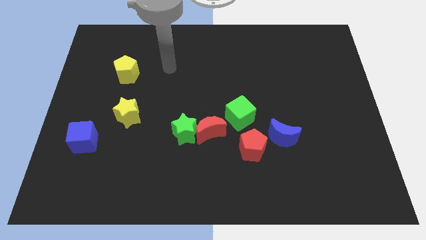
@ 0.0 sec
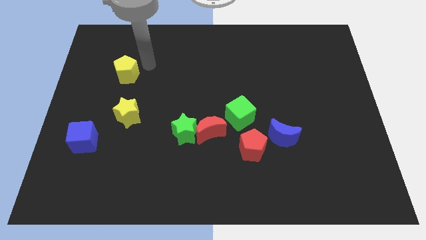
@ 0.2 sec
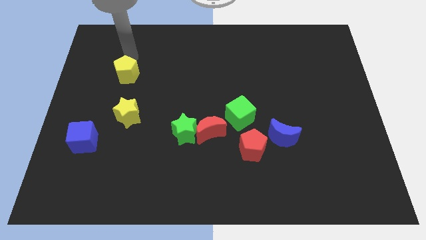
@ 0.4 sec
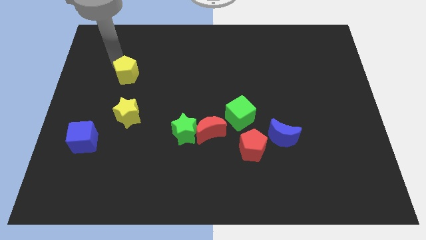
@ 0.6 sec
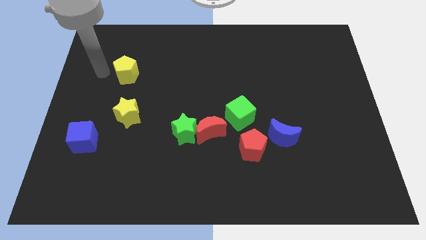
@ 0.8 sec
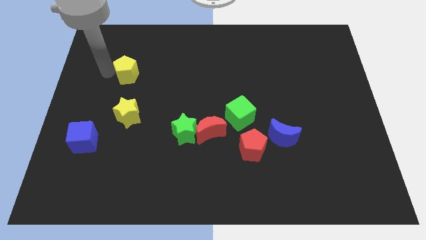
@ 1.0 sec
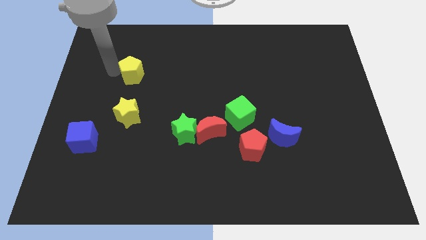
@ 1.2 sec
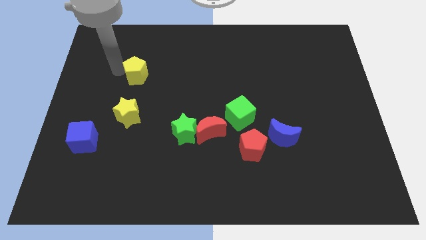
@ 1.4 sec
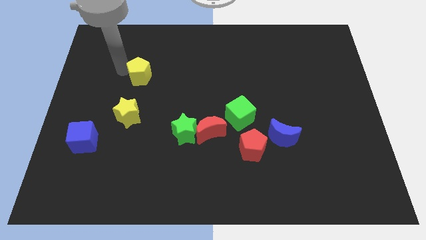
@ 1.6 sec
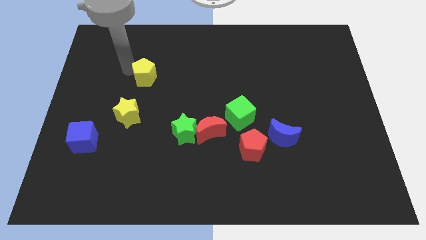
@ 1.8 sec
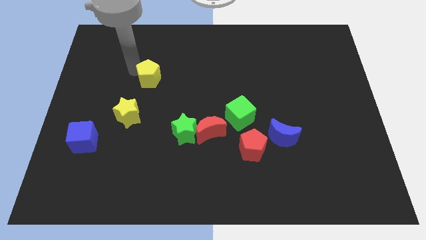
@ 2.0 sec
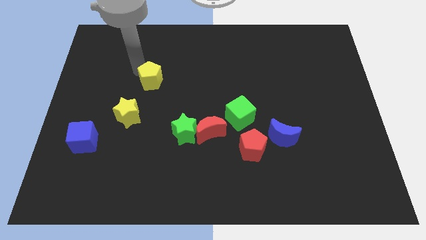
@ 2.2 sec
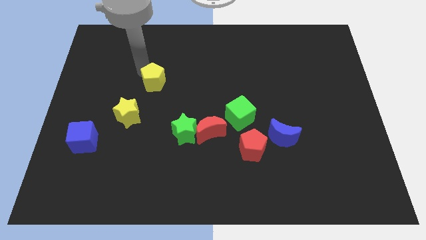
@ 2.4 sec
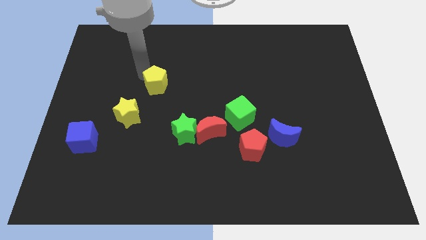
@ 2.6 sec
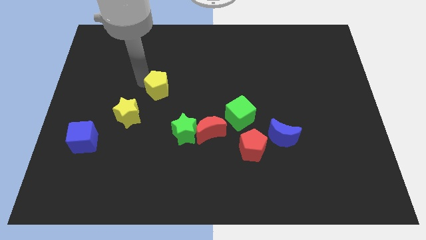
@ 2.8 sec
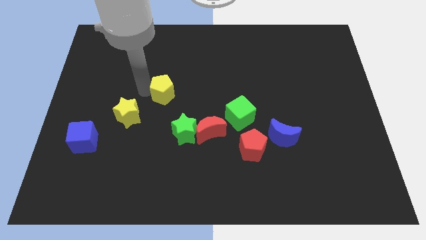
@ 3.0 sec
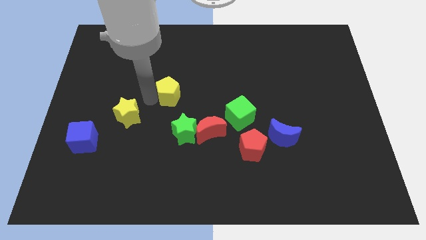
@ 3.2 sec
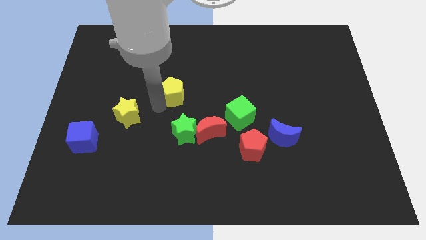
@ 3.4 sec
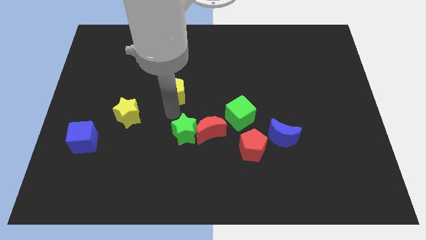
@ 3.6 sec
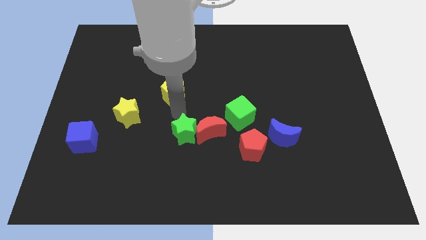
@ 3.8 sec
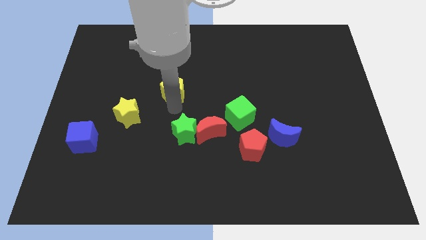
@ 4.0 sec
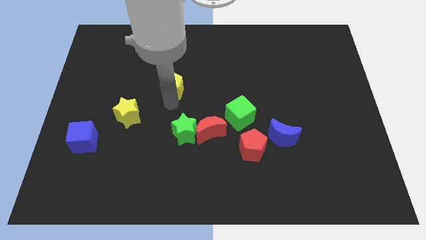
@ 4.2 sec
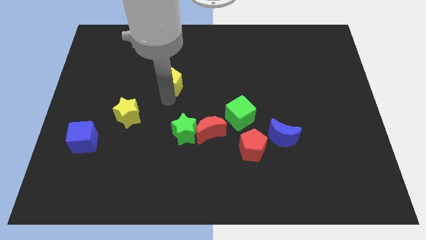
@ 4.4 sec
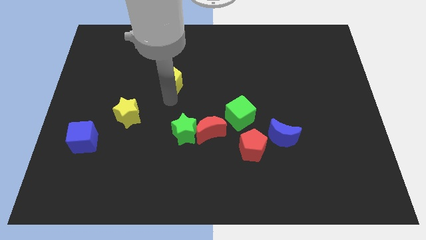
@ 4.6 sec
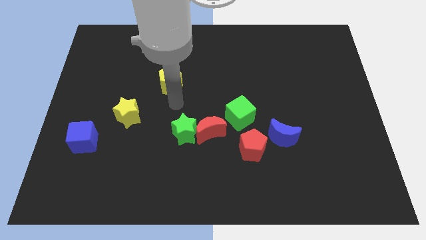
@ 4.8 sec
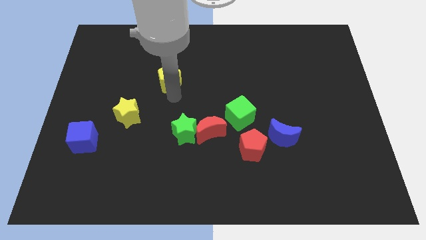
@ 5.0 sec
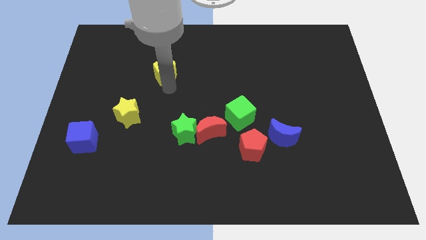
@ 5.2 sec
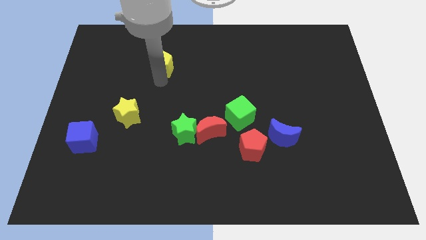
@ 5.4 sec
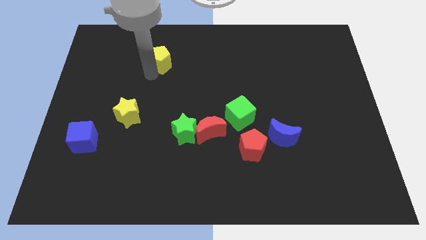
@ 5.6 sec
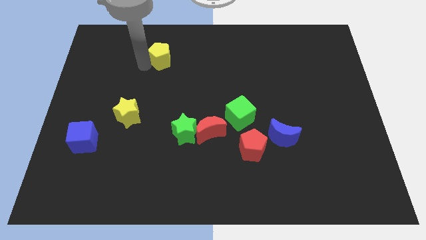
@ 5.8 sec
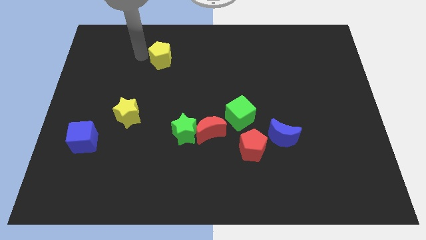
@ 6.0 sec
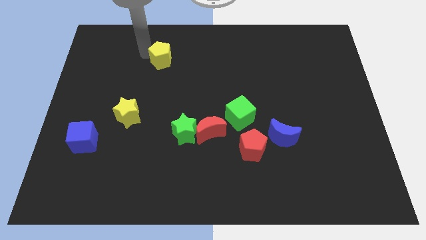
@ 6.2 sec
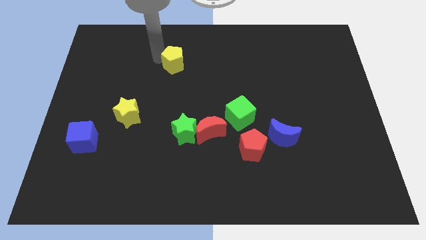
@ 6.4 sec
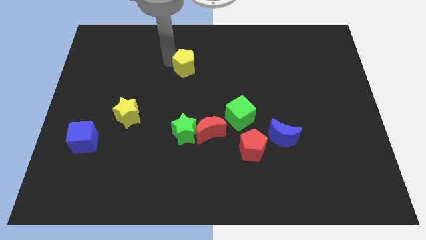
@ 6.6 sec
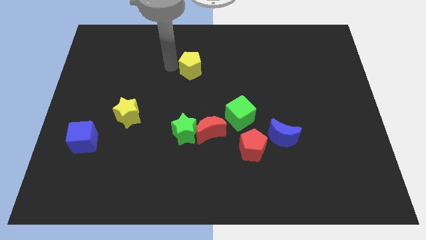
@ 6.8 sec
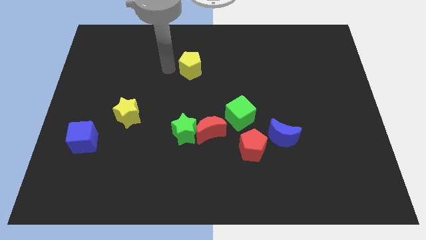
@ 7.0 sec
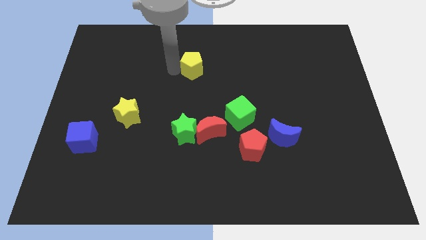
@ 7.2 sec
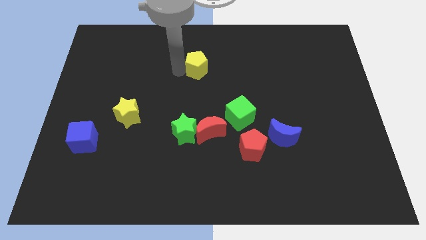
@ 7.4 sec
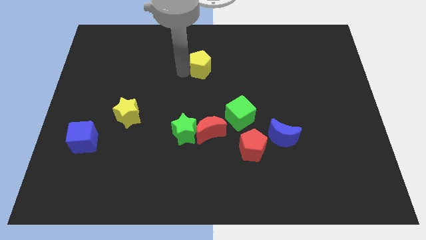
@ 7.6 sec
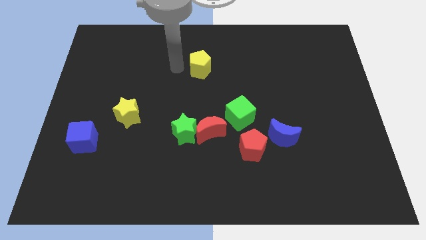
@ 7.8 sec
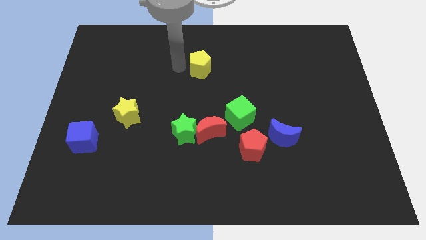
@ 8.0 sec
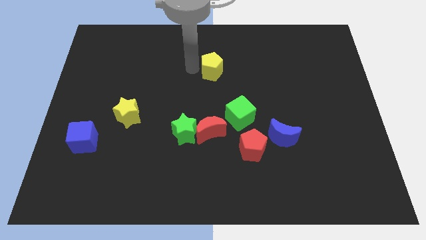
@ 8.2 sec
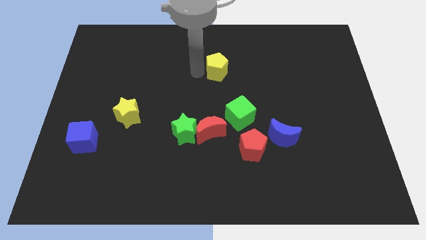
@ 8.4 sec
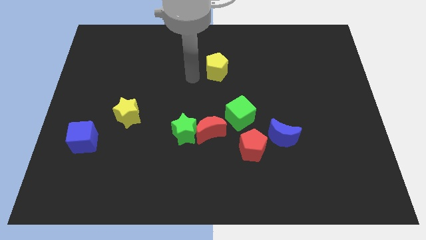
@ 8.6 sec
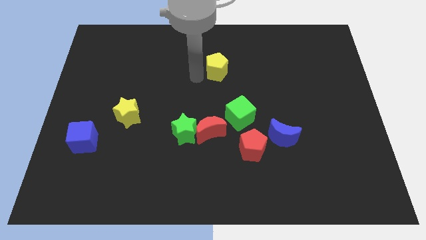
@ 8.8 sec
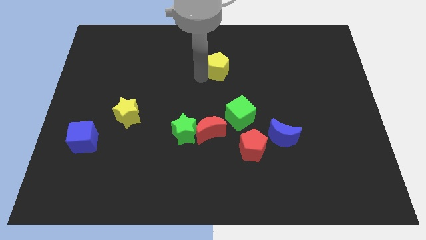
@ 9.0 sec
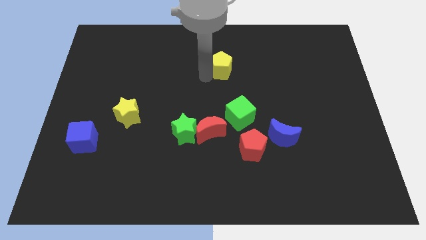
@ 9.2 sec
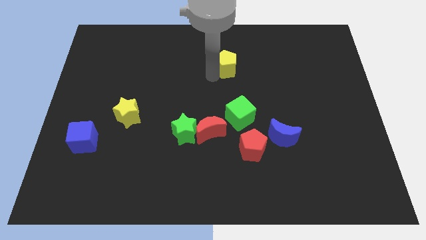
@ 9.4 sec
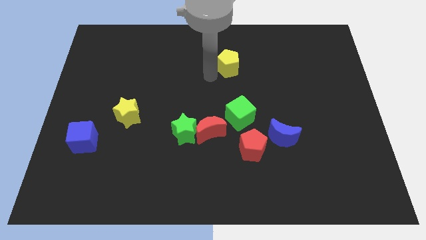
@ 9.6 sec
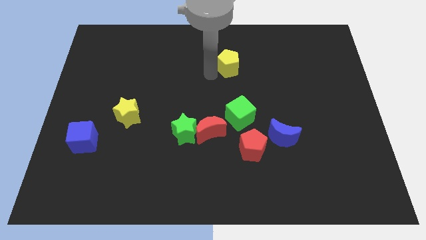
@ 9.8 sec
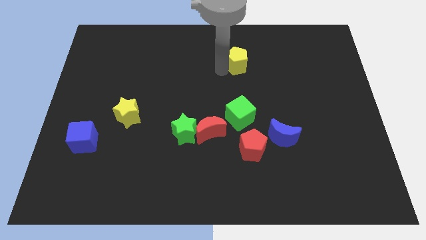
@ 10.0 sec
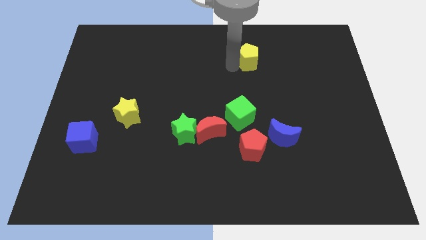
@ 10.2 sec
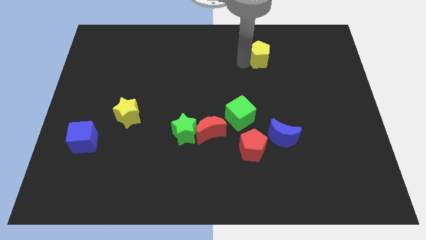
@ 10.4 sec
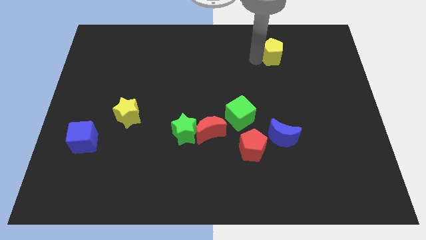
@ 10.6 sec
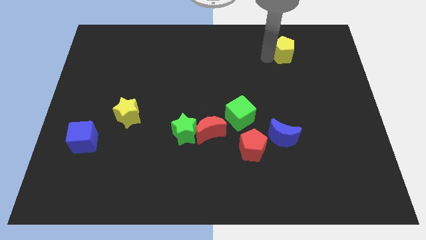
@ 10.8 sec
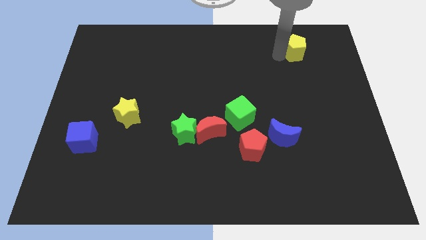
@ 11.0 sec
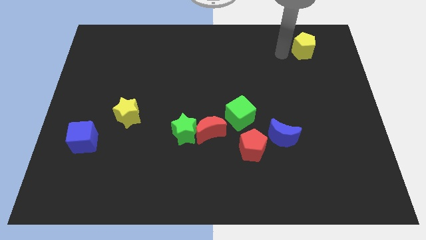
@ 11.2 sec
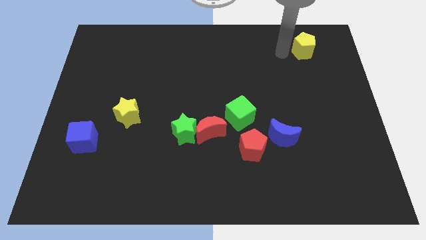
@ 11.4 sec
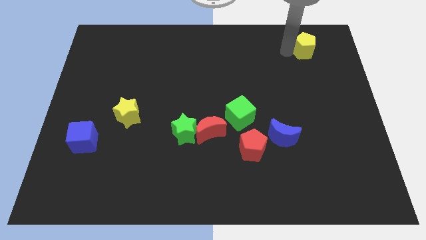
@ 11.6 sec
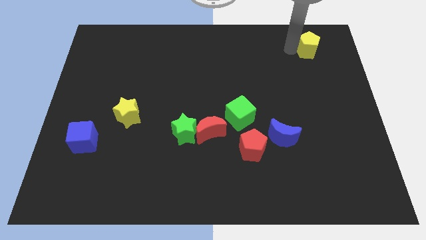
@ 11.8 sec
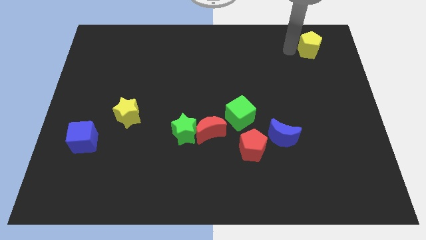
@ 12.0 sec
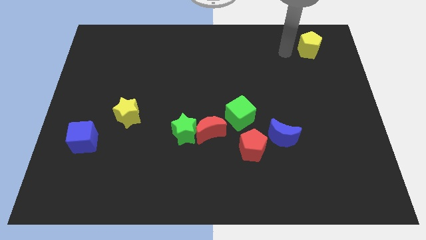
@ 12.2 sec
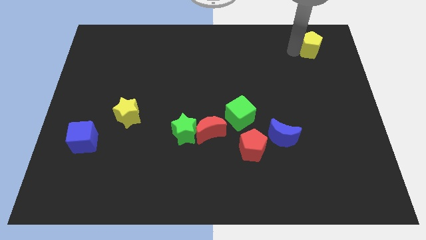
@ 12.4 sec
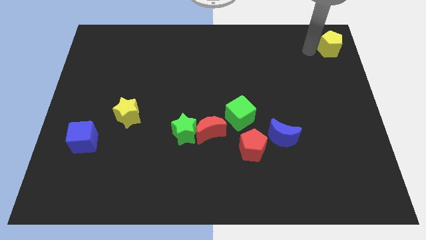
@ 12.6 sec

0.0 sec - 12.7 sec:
slide the yellow pentagon to the top right corner
